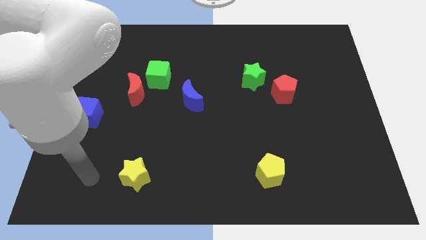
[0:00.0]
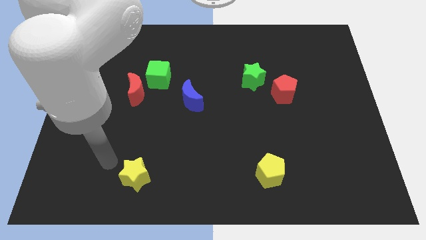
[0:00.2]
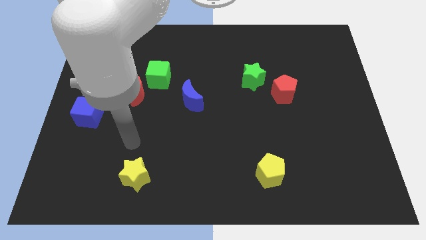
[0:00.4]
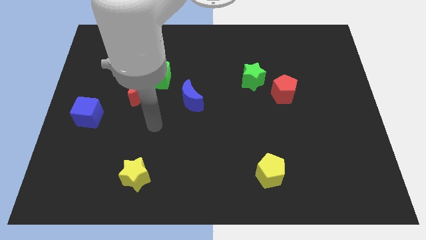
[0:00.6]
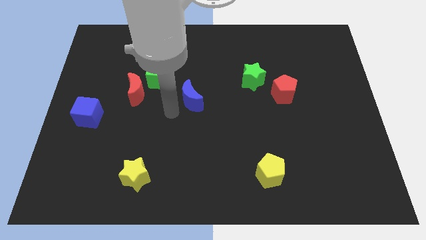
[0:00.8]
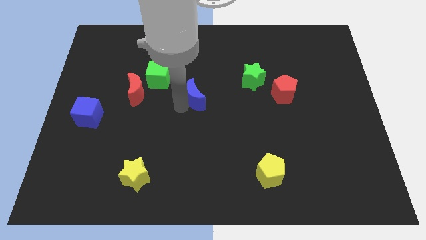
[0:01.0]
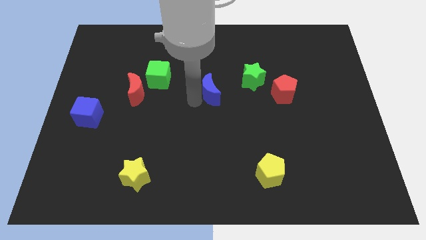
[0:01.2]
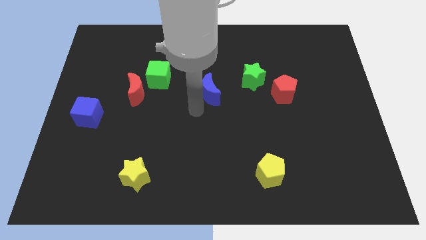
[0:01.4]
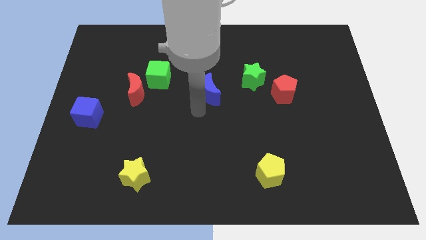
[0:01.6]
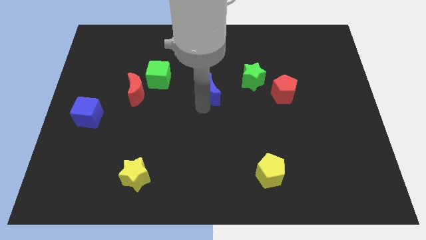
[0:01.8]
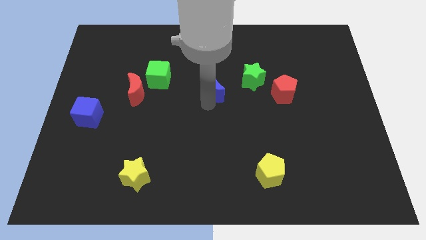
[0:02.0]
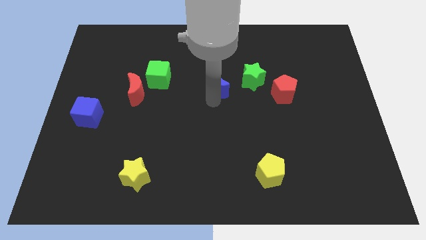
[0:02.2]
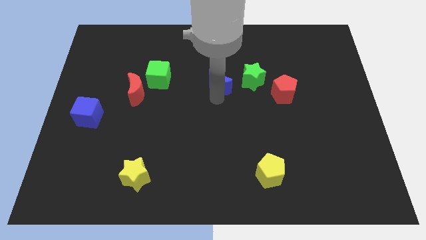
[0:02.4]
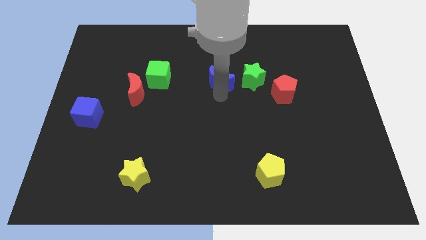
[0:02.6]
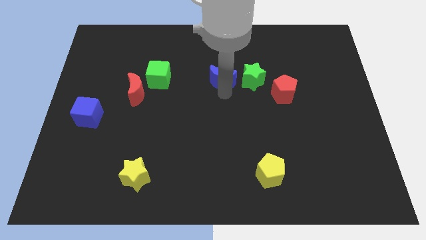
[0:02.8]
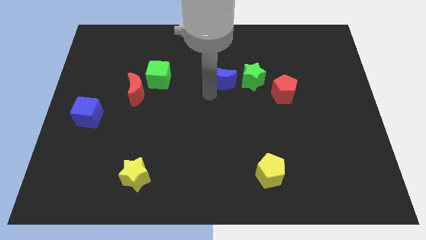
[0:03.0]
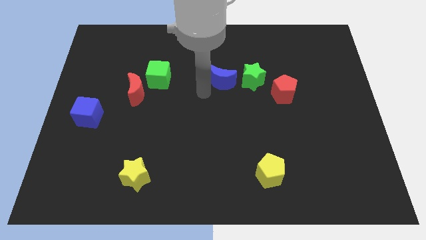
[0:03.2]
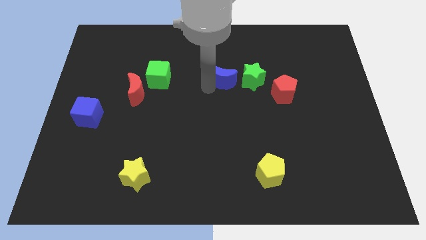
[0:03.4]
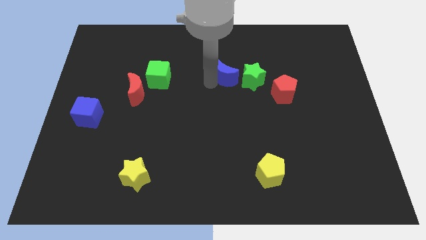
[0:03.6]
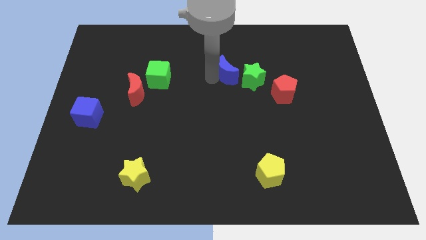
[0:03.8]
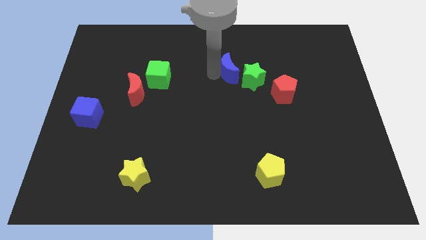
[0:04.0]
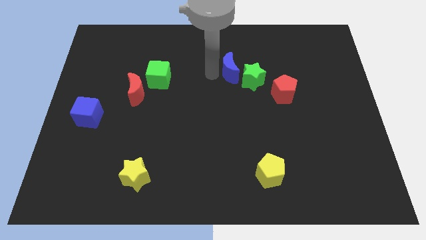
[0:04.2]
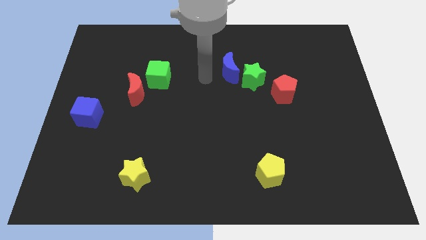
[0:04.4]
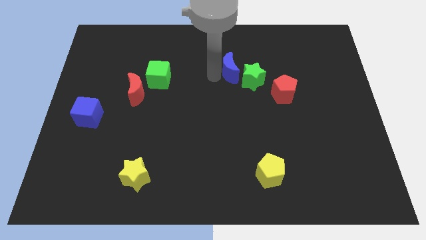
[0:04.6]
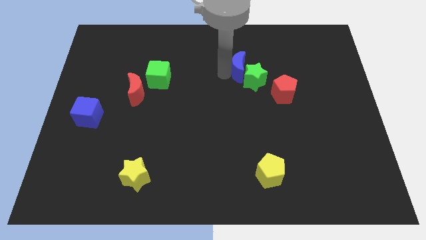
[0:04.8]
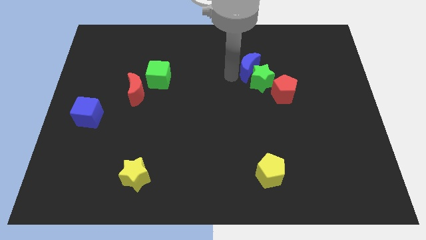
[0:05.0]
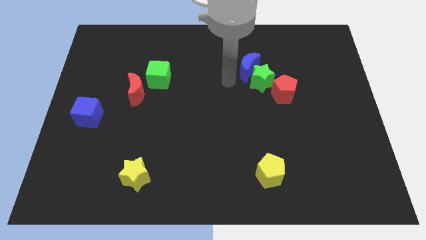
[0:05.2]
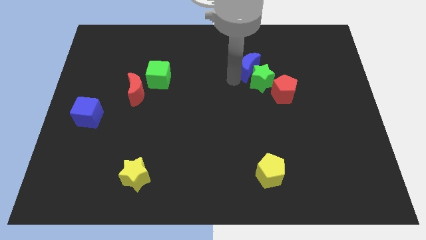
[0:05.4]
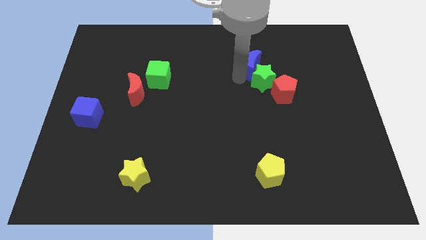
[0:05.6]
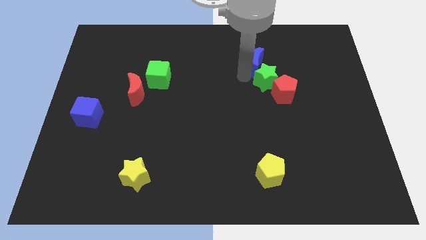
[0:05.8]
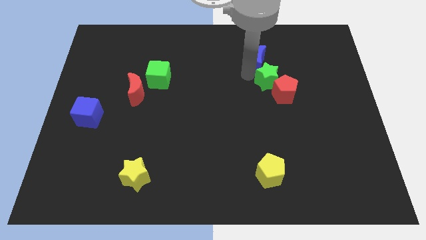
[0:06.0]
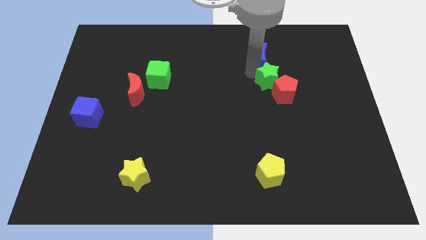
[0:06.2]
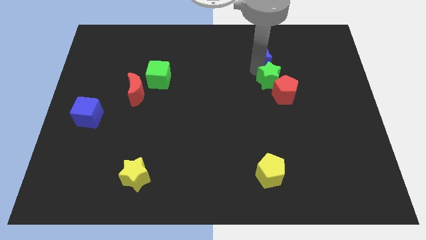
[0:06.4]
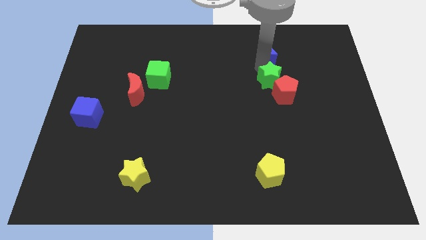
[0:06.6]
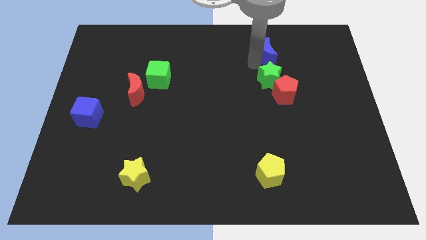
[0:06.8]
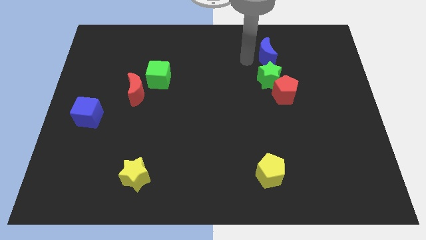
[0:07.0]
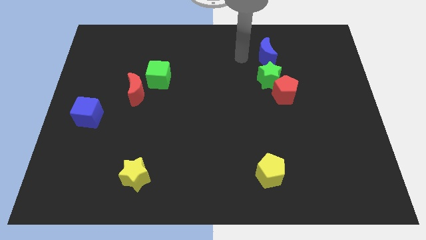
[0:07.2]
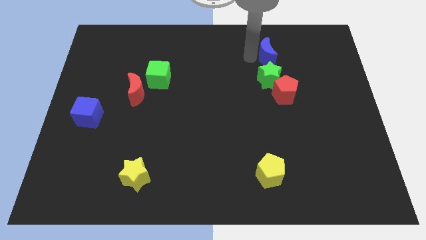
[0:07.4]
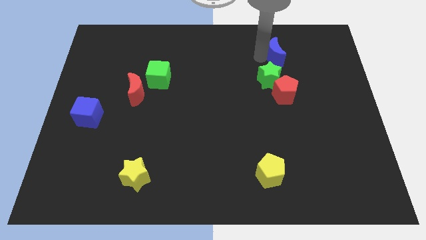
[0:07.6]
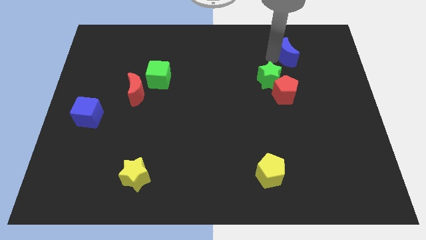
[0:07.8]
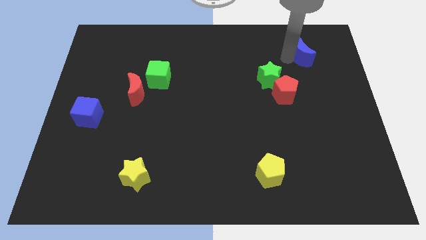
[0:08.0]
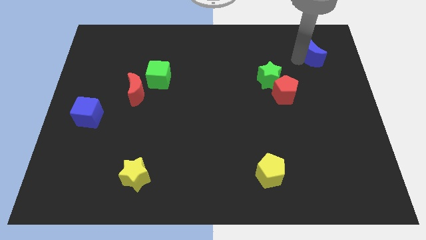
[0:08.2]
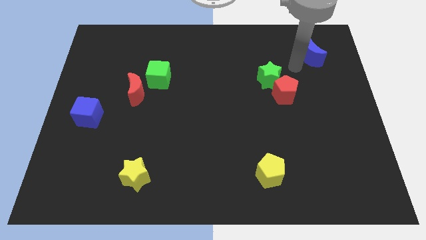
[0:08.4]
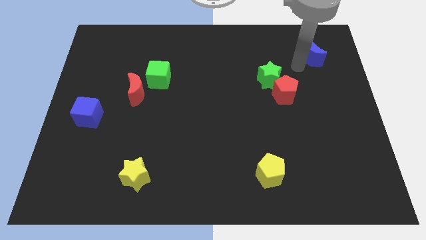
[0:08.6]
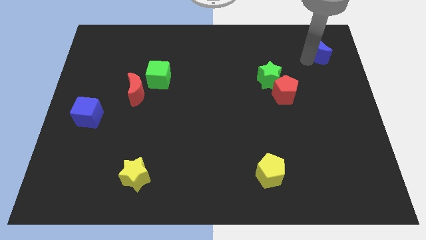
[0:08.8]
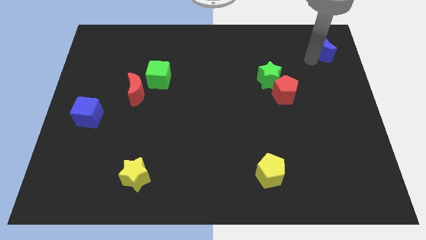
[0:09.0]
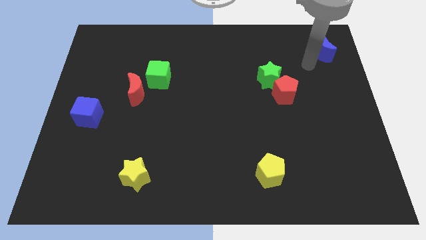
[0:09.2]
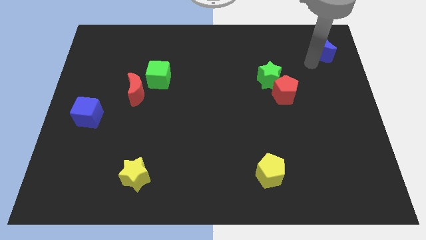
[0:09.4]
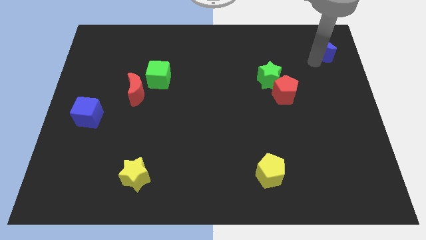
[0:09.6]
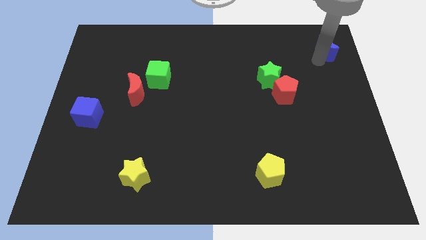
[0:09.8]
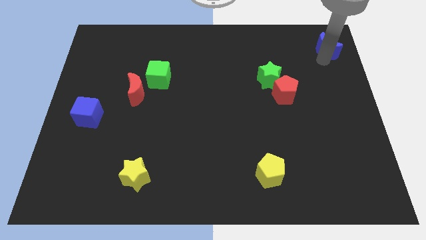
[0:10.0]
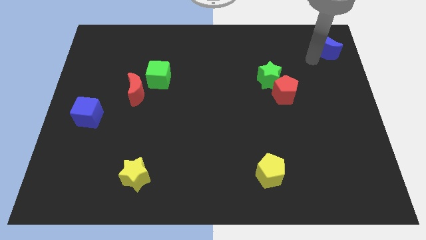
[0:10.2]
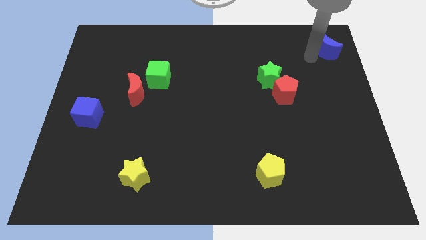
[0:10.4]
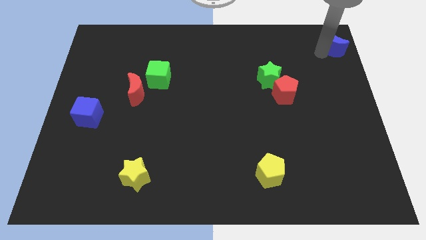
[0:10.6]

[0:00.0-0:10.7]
put the blue moon to the top right

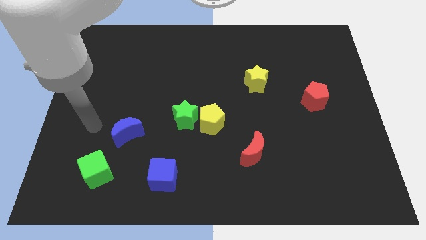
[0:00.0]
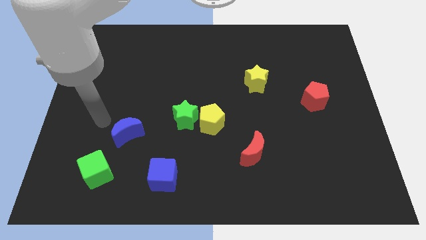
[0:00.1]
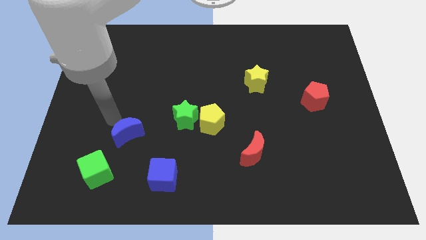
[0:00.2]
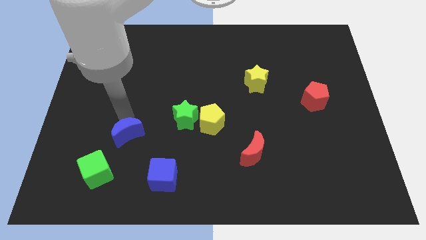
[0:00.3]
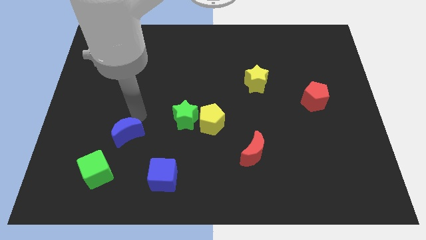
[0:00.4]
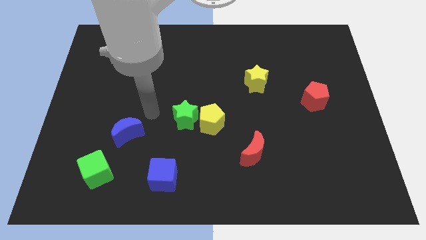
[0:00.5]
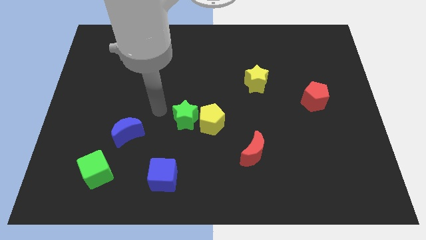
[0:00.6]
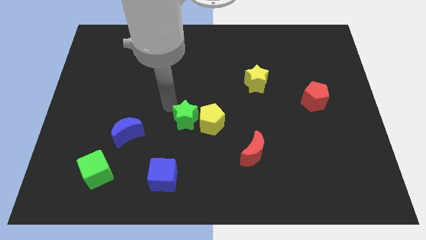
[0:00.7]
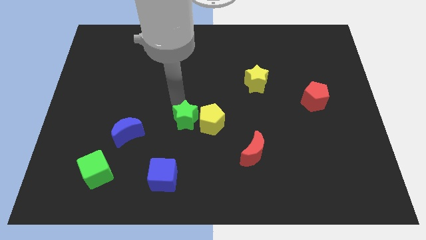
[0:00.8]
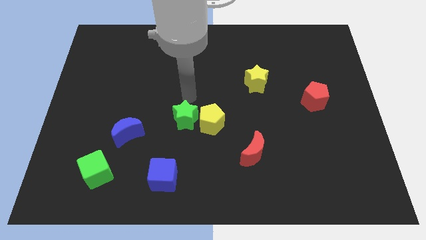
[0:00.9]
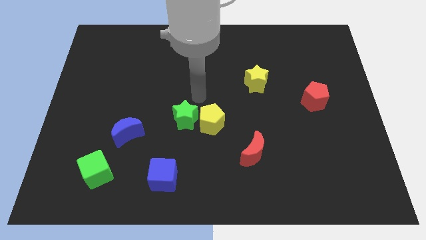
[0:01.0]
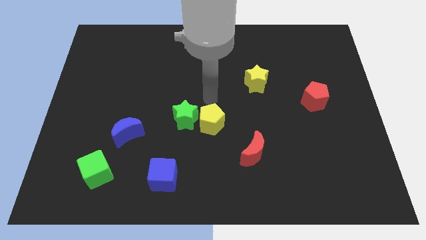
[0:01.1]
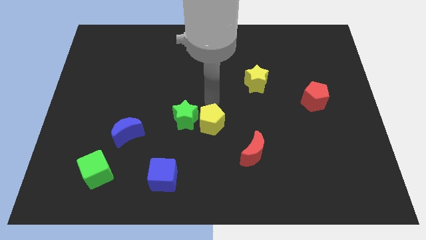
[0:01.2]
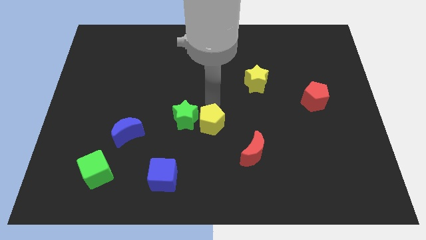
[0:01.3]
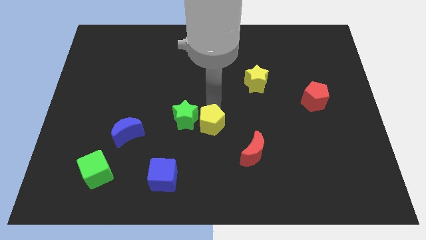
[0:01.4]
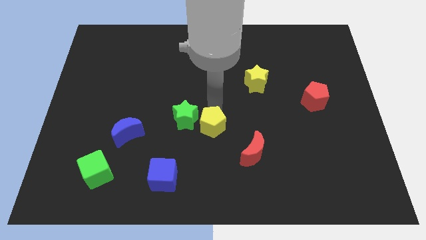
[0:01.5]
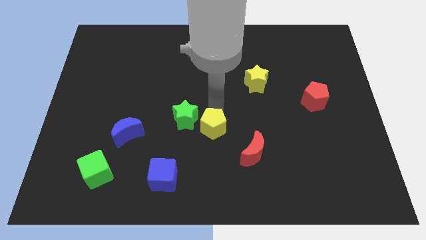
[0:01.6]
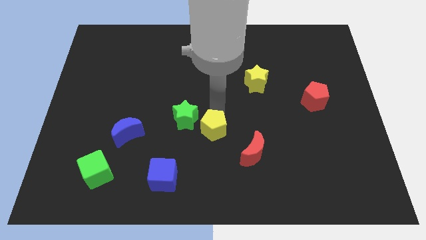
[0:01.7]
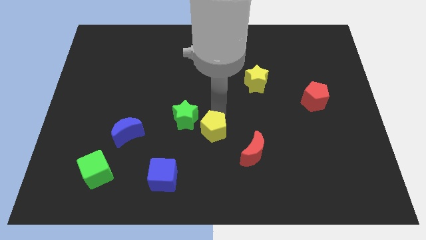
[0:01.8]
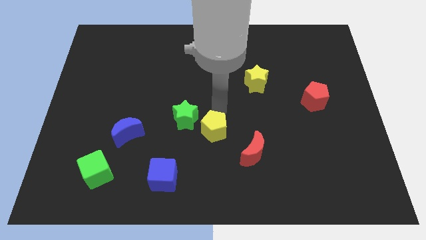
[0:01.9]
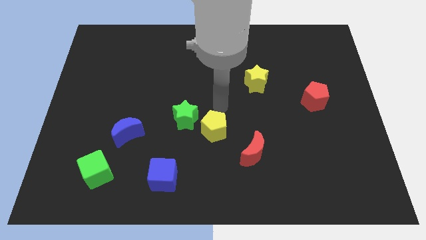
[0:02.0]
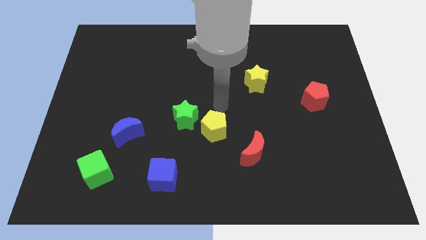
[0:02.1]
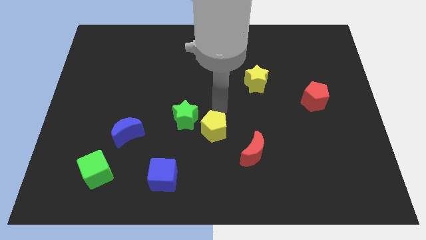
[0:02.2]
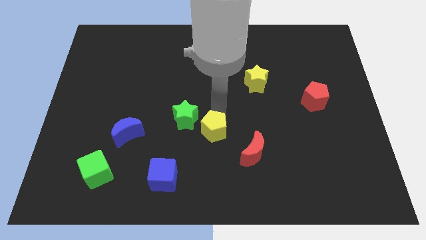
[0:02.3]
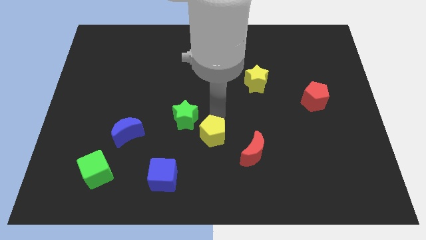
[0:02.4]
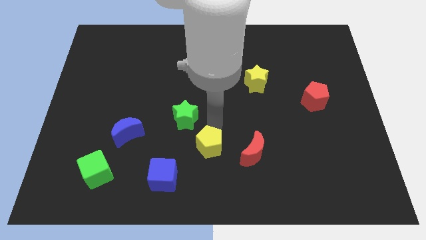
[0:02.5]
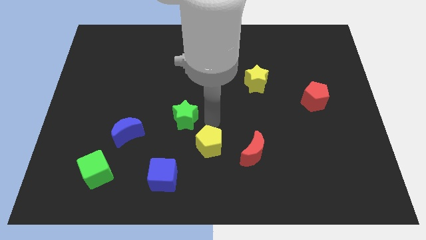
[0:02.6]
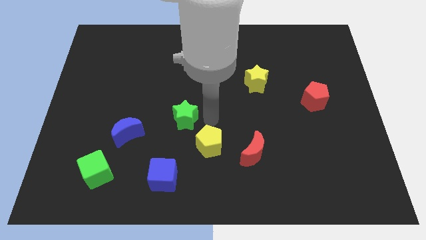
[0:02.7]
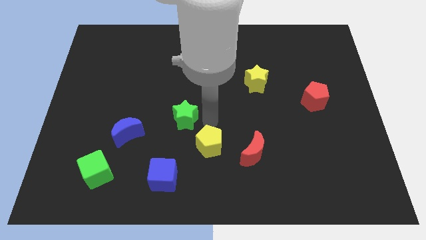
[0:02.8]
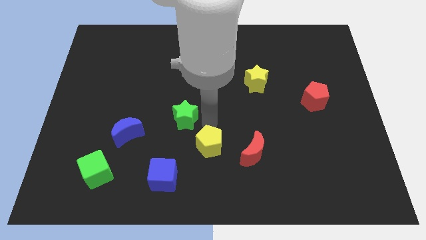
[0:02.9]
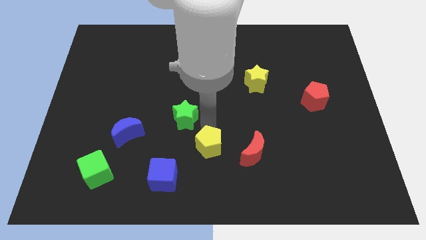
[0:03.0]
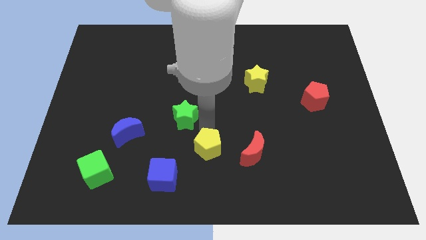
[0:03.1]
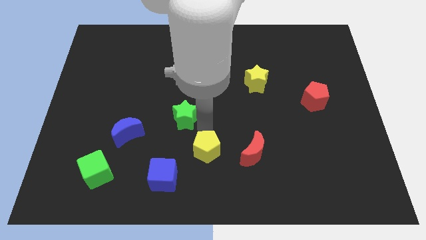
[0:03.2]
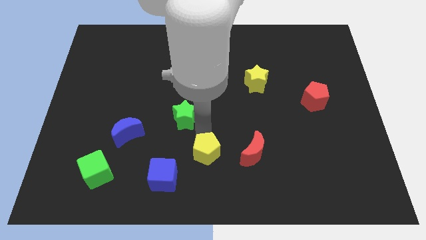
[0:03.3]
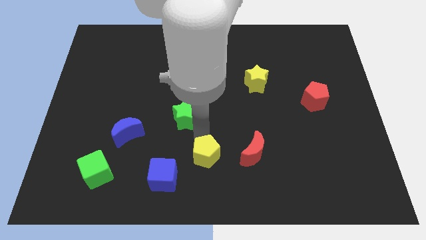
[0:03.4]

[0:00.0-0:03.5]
put the yellow pentagon to the bottom side
